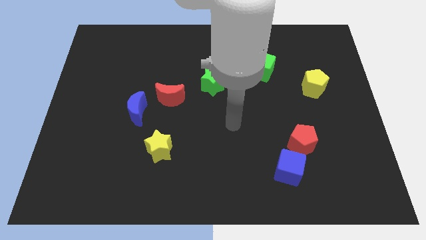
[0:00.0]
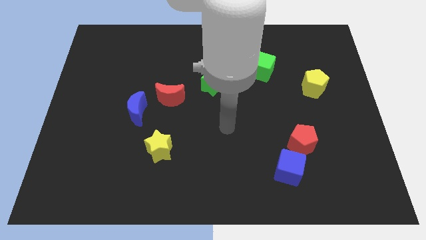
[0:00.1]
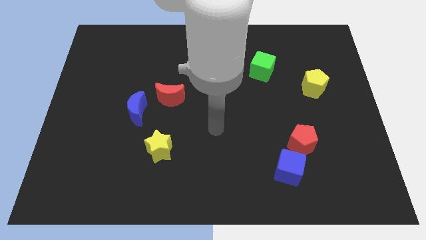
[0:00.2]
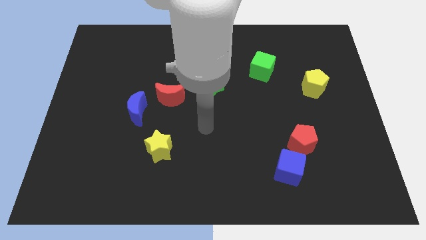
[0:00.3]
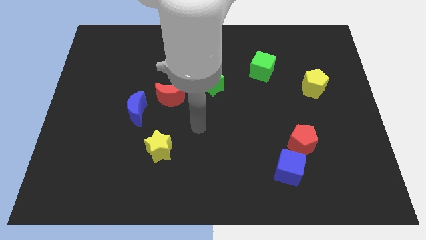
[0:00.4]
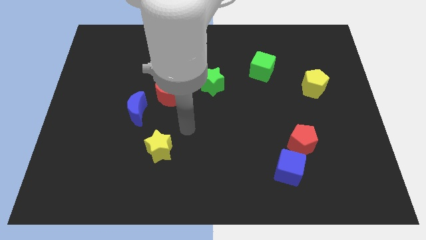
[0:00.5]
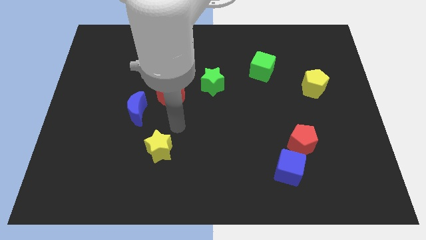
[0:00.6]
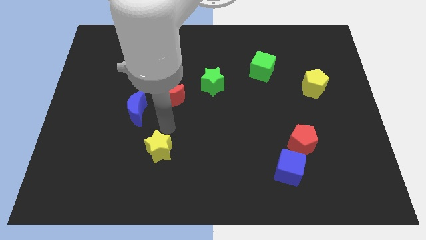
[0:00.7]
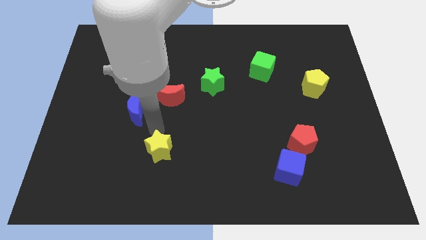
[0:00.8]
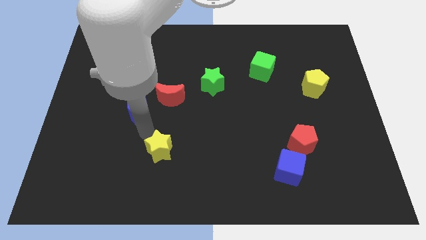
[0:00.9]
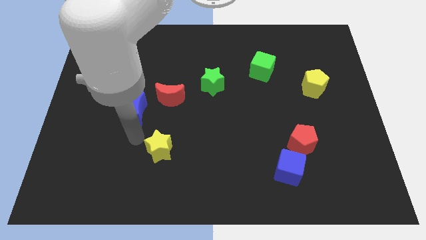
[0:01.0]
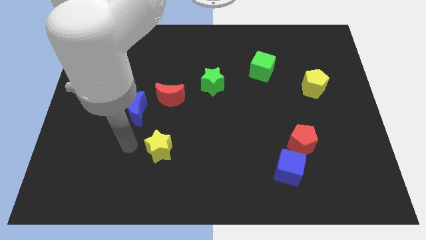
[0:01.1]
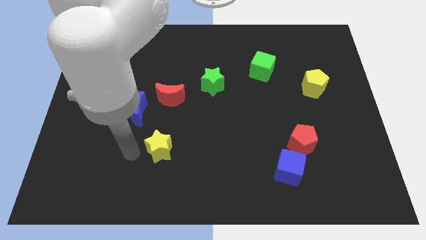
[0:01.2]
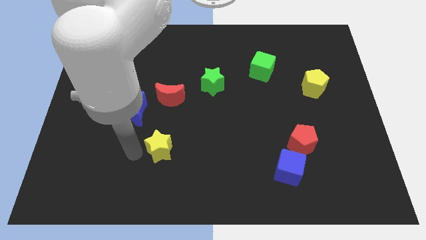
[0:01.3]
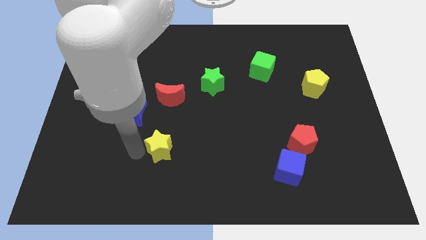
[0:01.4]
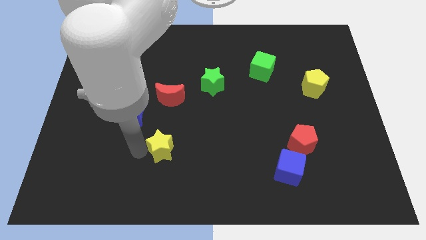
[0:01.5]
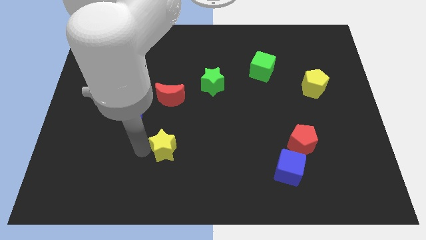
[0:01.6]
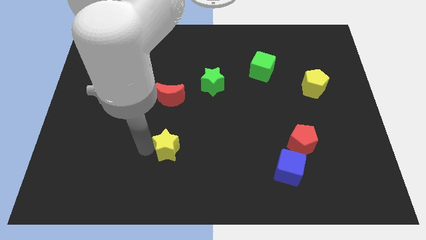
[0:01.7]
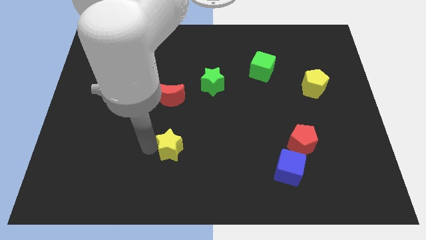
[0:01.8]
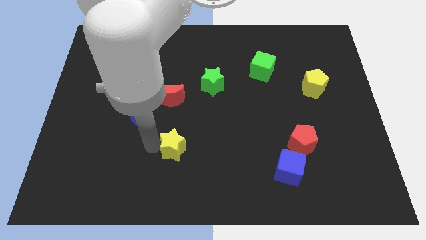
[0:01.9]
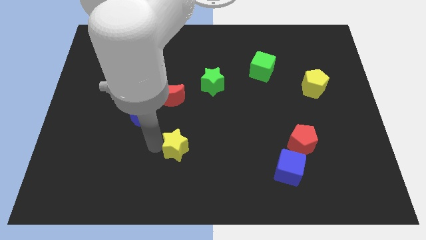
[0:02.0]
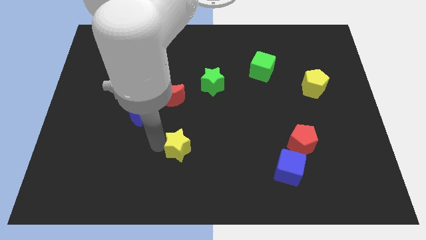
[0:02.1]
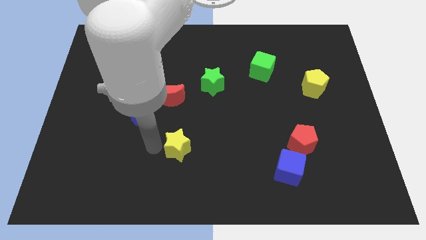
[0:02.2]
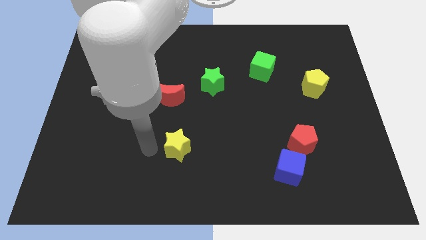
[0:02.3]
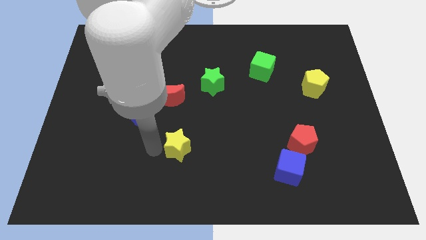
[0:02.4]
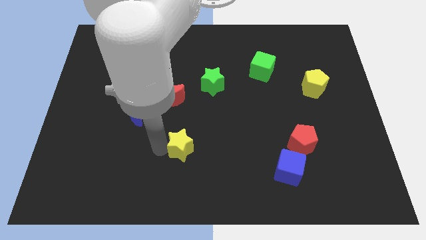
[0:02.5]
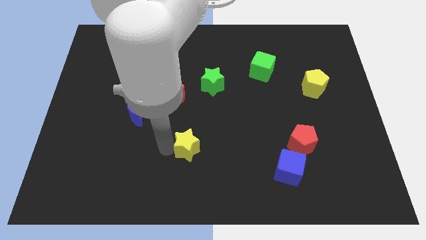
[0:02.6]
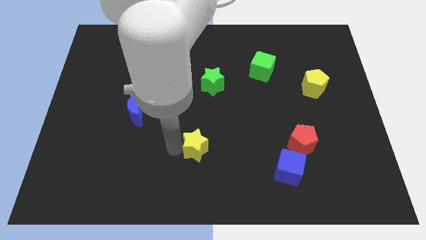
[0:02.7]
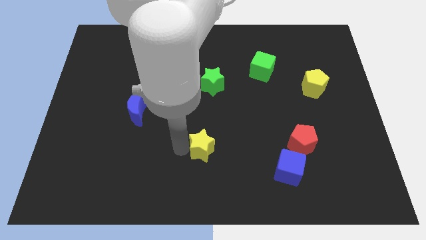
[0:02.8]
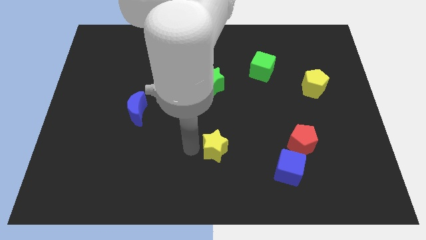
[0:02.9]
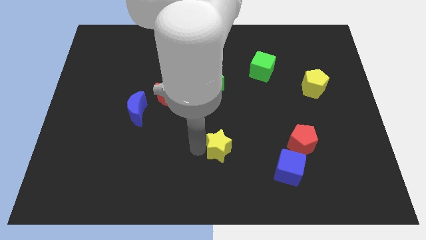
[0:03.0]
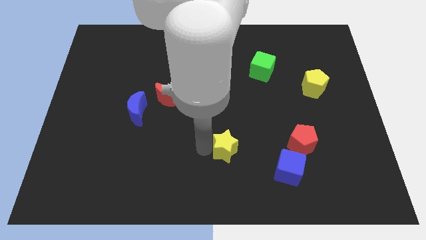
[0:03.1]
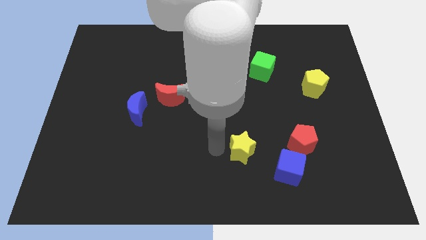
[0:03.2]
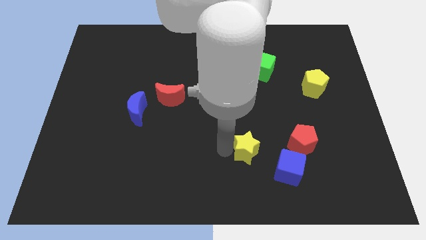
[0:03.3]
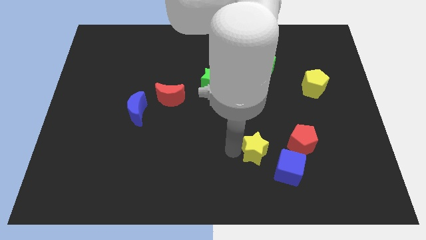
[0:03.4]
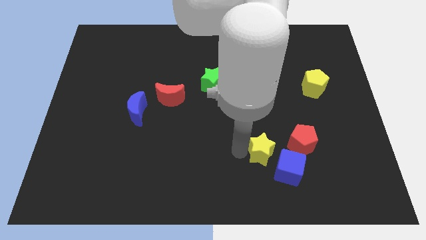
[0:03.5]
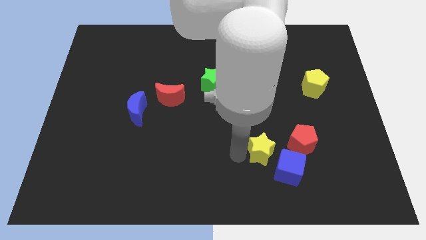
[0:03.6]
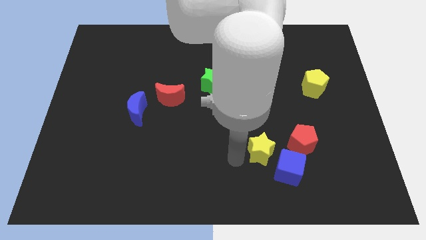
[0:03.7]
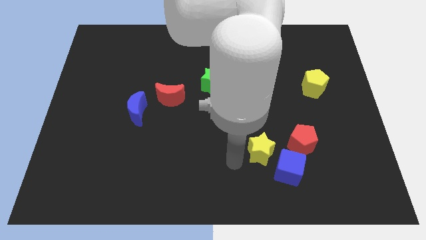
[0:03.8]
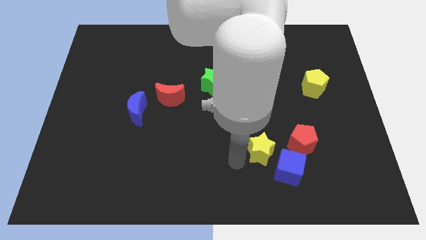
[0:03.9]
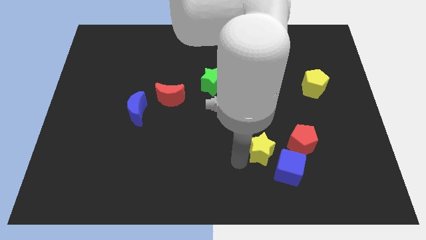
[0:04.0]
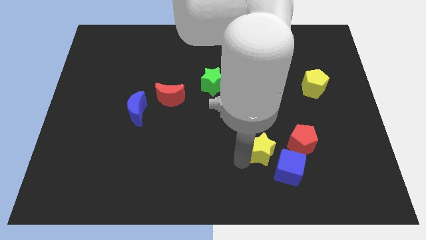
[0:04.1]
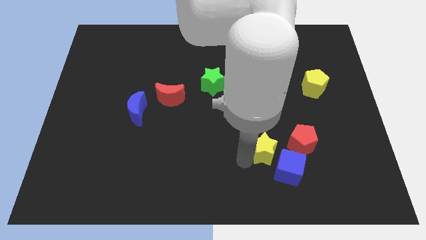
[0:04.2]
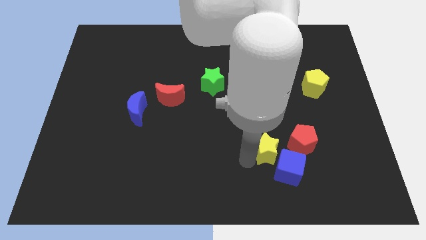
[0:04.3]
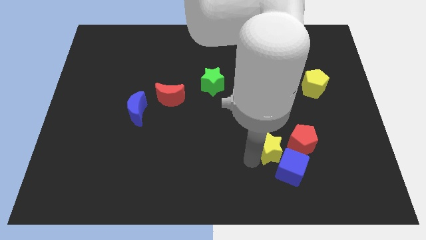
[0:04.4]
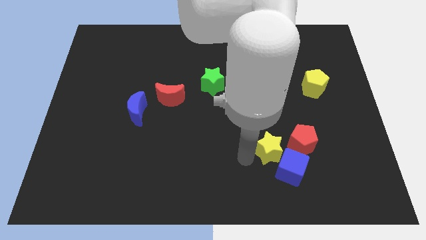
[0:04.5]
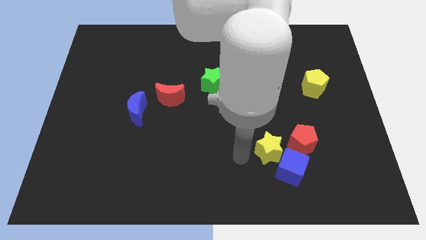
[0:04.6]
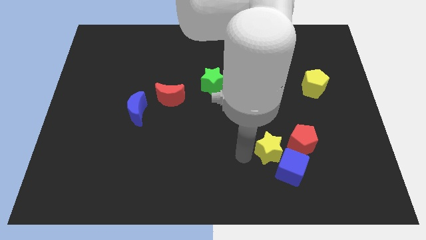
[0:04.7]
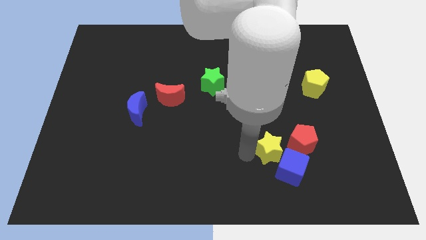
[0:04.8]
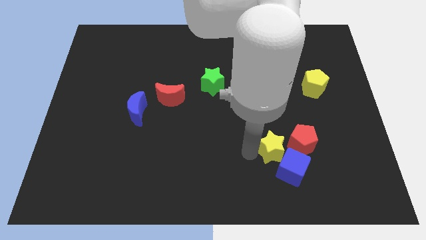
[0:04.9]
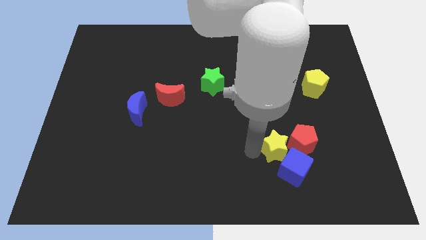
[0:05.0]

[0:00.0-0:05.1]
put the yellow star towards the red pentagon

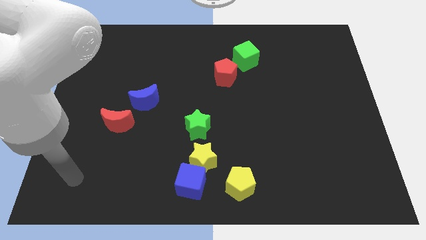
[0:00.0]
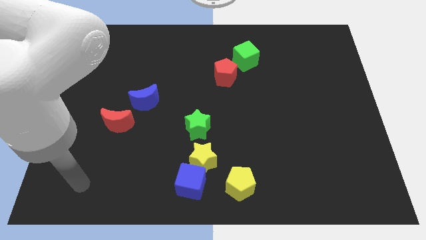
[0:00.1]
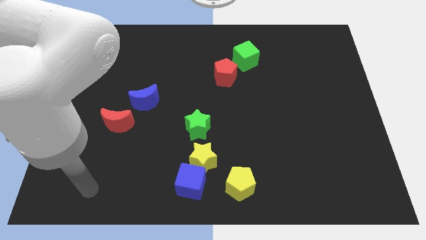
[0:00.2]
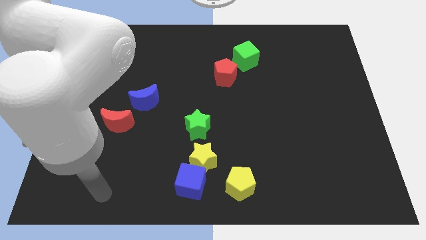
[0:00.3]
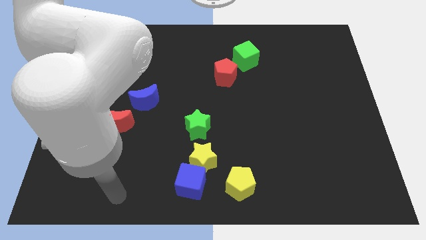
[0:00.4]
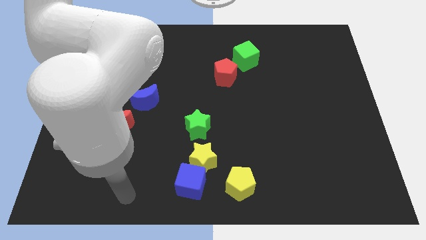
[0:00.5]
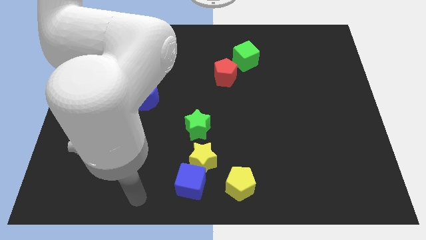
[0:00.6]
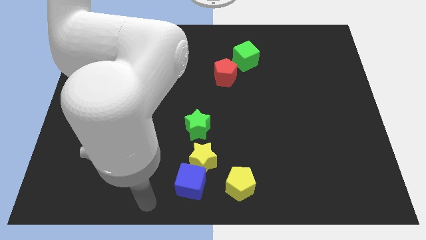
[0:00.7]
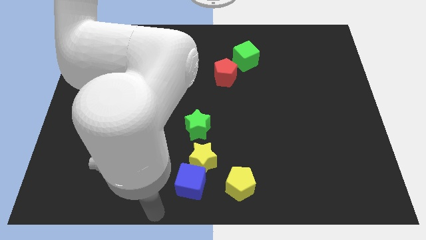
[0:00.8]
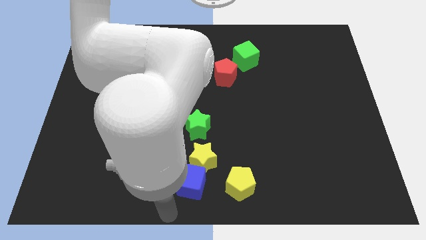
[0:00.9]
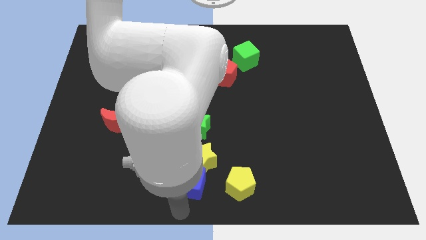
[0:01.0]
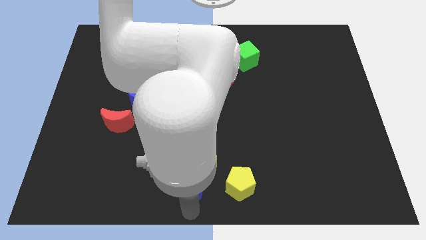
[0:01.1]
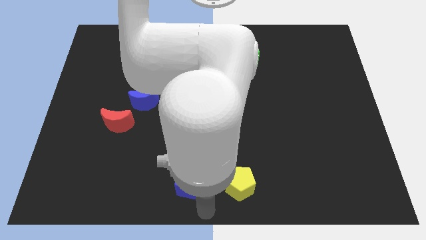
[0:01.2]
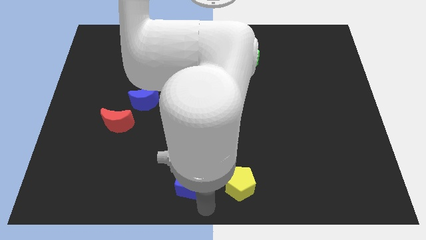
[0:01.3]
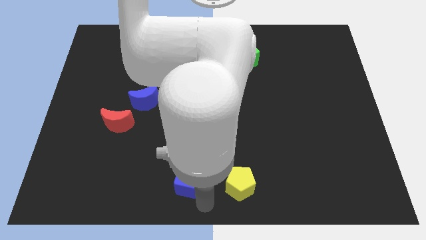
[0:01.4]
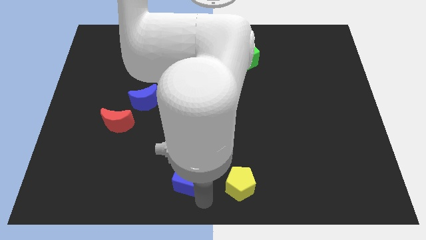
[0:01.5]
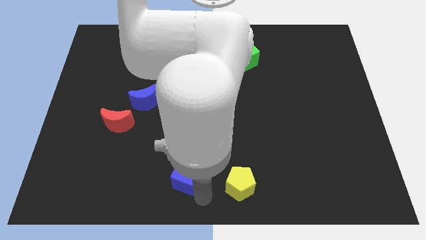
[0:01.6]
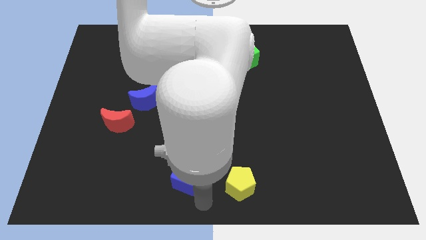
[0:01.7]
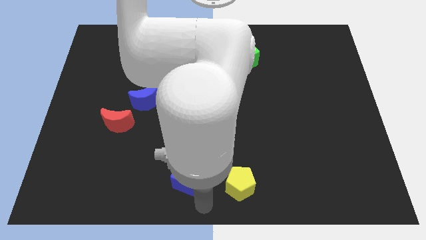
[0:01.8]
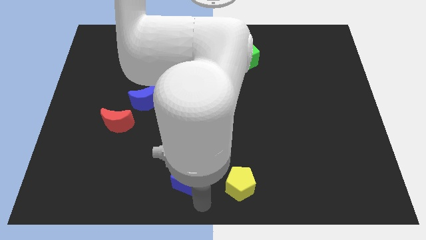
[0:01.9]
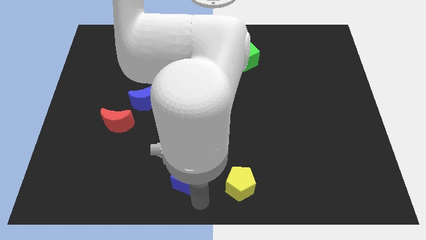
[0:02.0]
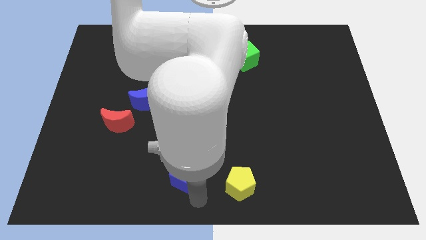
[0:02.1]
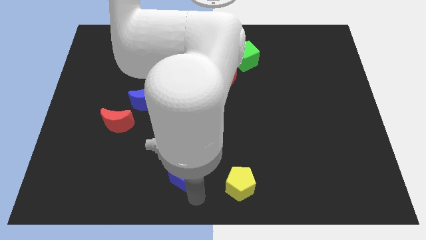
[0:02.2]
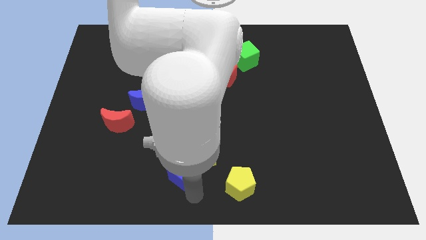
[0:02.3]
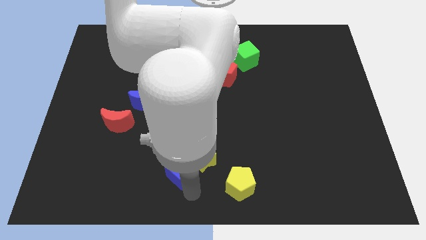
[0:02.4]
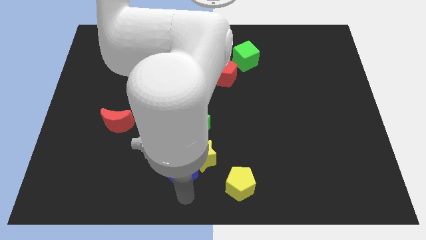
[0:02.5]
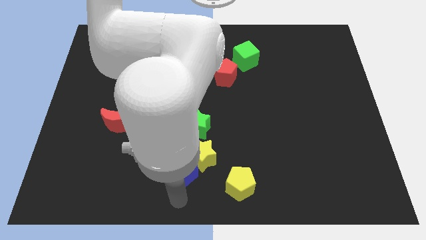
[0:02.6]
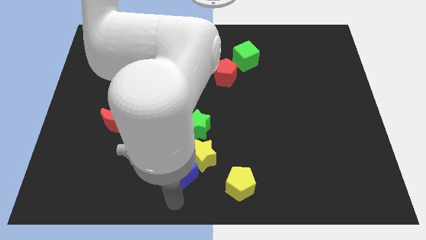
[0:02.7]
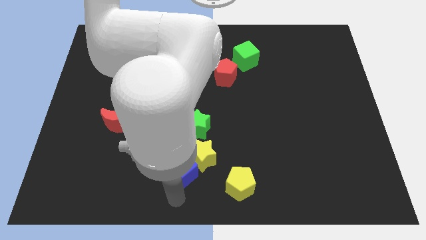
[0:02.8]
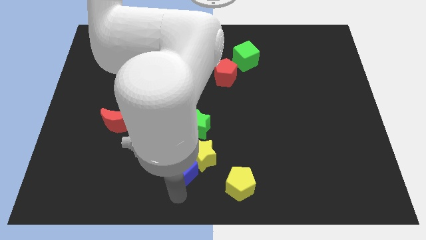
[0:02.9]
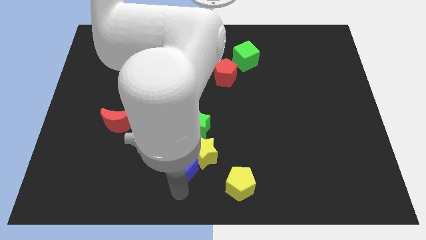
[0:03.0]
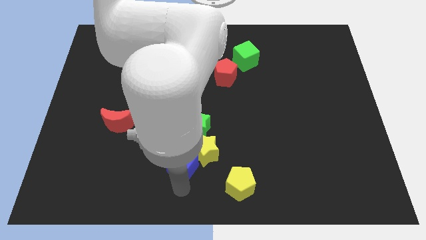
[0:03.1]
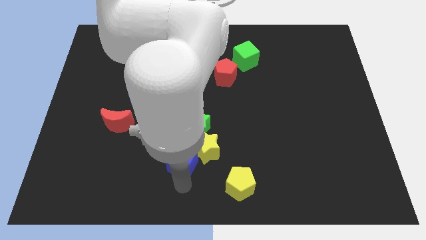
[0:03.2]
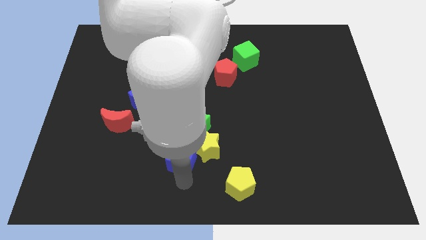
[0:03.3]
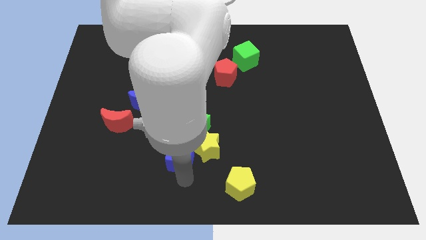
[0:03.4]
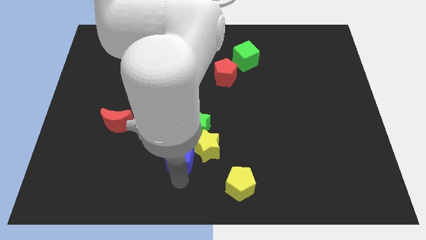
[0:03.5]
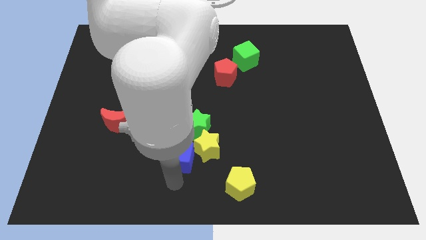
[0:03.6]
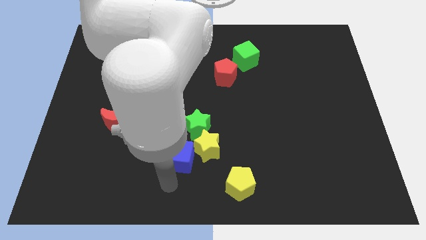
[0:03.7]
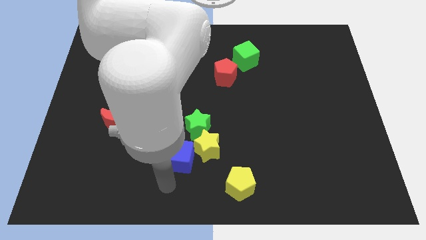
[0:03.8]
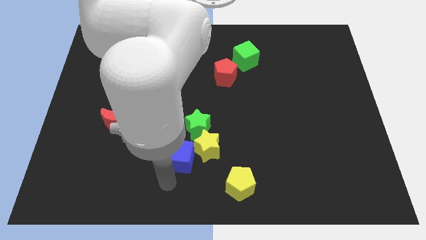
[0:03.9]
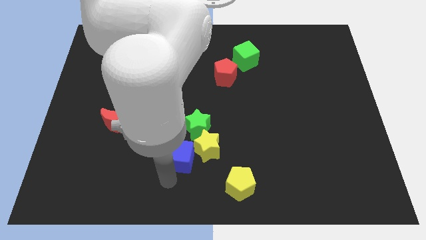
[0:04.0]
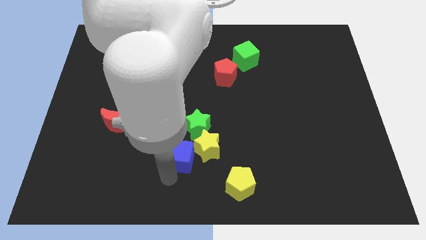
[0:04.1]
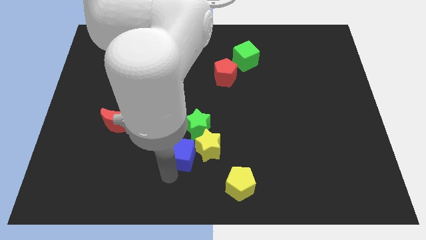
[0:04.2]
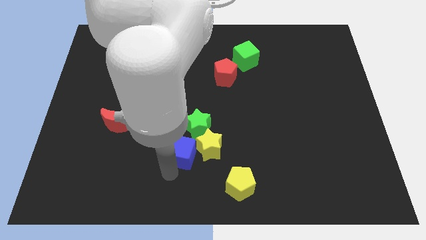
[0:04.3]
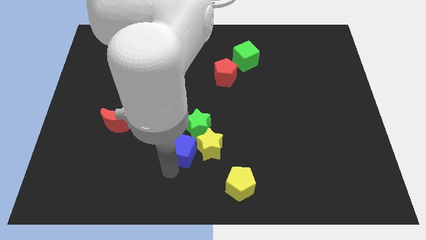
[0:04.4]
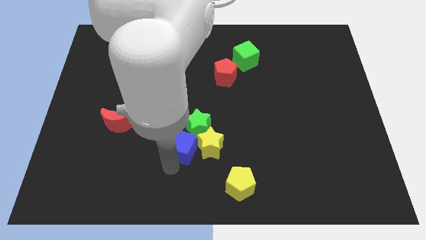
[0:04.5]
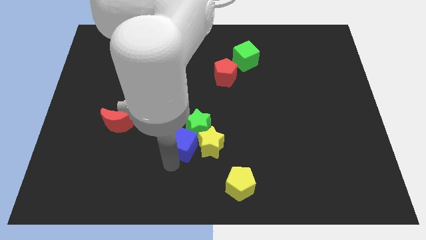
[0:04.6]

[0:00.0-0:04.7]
move the blue cube to the green star
